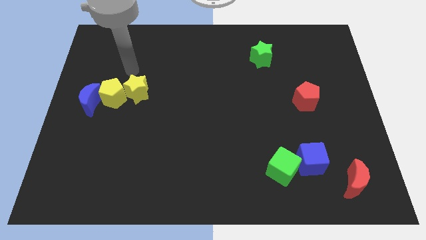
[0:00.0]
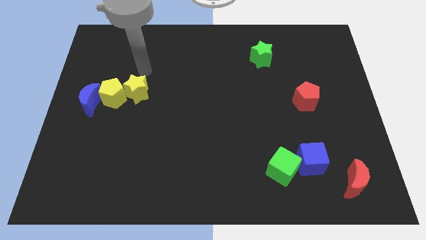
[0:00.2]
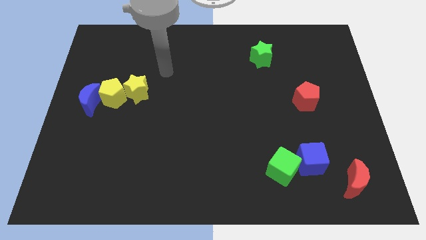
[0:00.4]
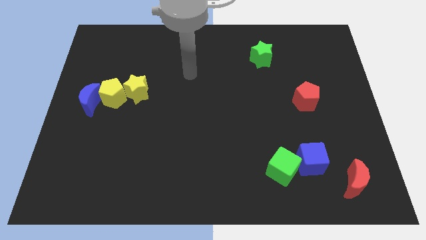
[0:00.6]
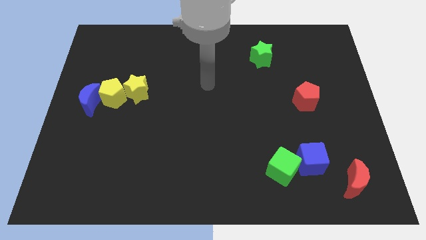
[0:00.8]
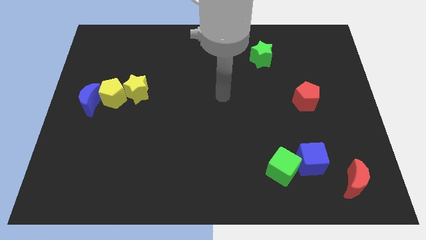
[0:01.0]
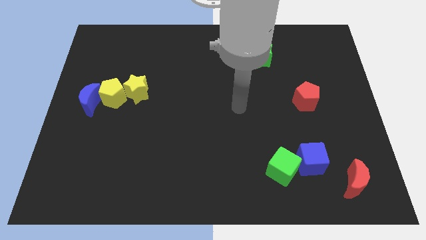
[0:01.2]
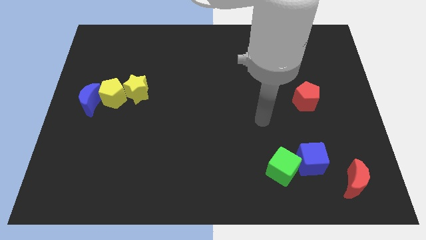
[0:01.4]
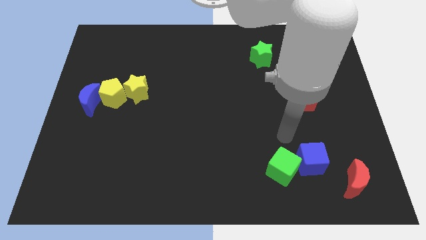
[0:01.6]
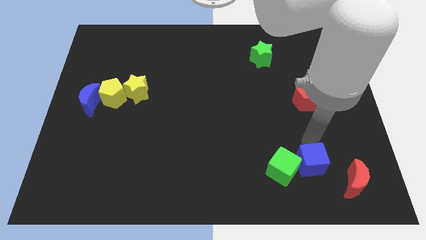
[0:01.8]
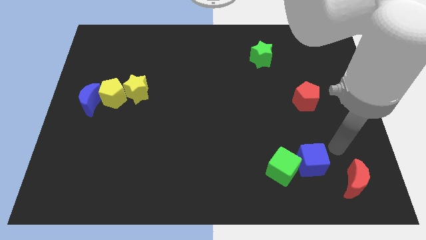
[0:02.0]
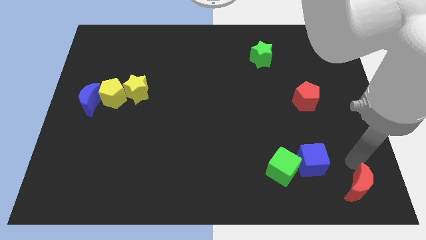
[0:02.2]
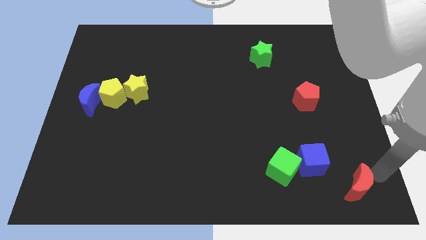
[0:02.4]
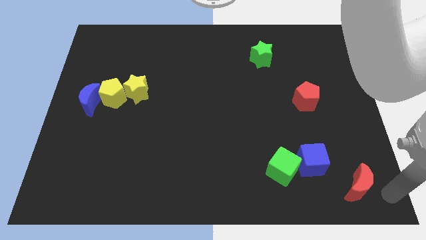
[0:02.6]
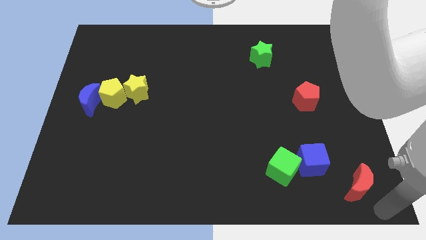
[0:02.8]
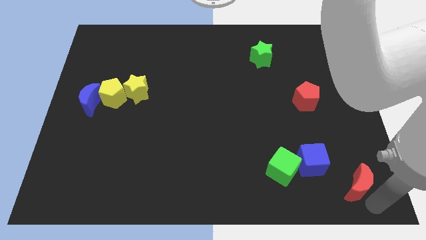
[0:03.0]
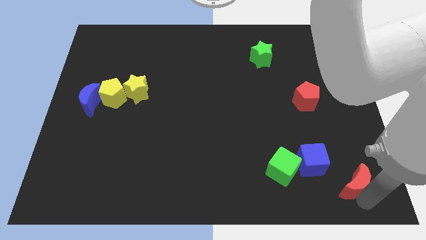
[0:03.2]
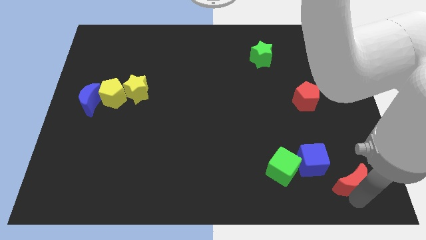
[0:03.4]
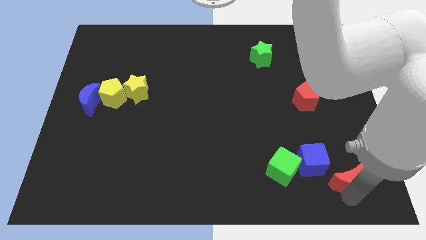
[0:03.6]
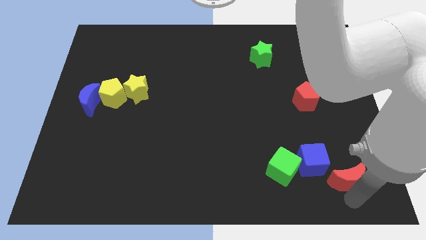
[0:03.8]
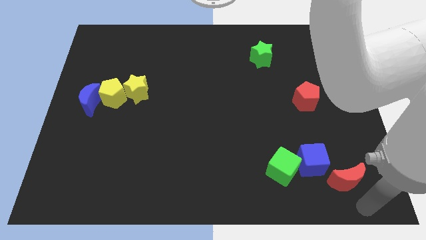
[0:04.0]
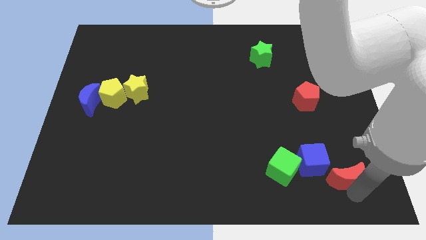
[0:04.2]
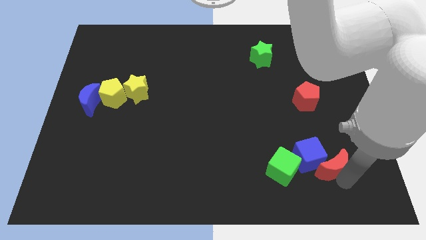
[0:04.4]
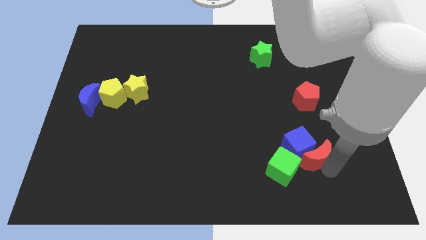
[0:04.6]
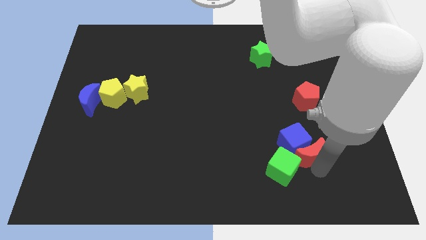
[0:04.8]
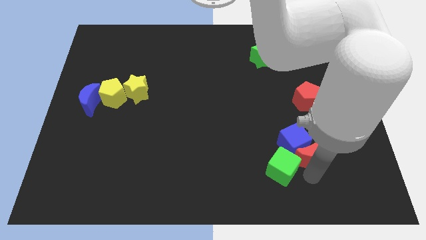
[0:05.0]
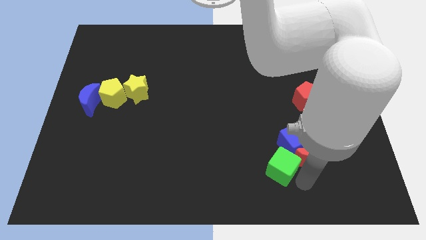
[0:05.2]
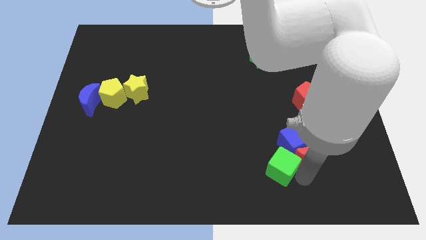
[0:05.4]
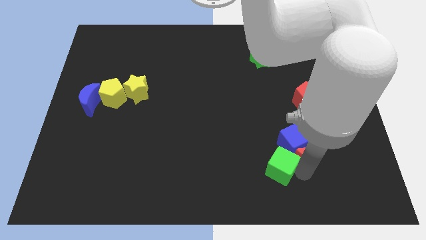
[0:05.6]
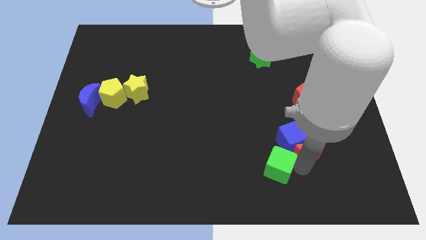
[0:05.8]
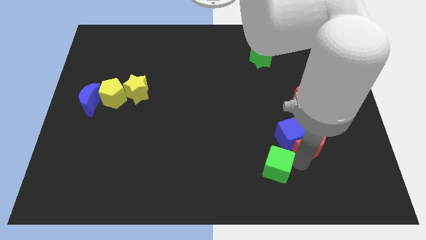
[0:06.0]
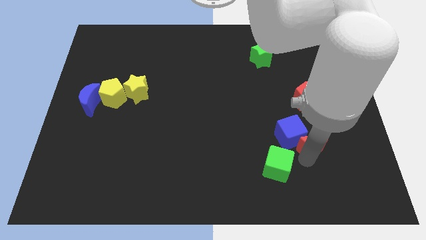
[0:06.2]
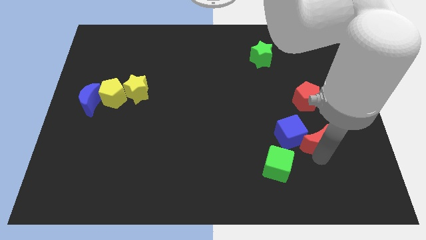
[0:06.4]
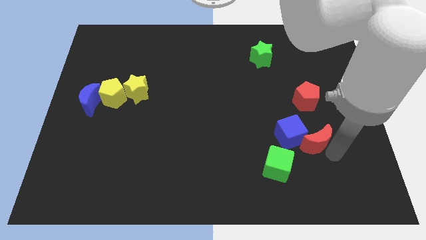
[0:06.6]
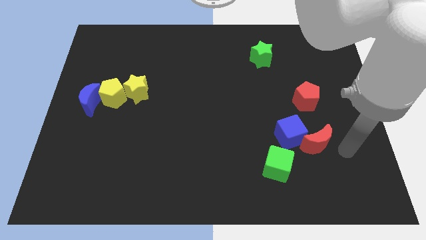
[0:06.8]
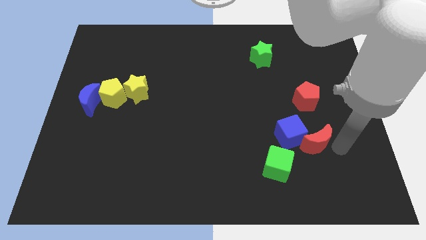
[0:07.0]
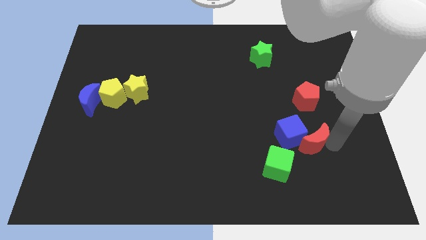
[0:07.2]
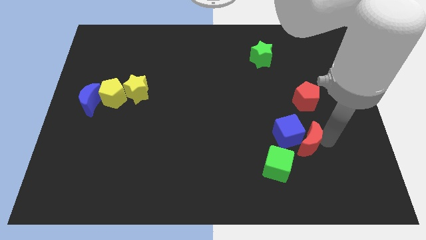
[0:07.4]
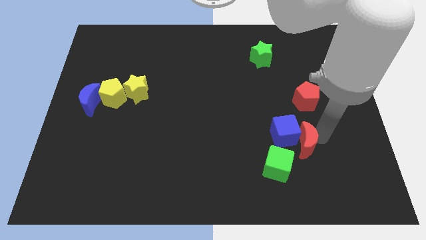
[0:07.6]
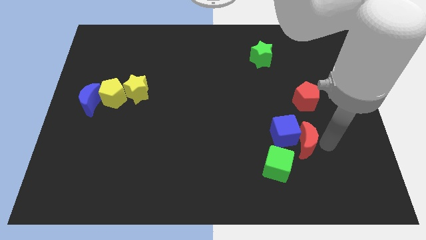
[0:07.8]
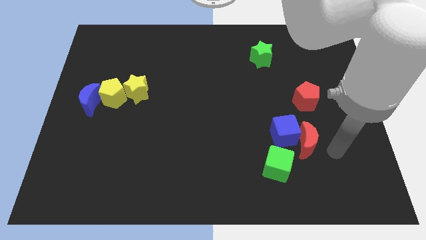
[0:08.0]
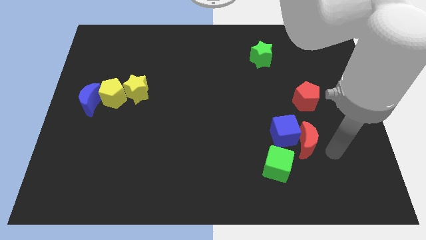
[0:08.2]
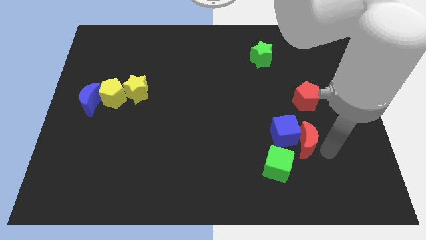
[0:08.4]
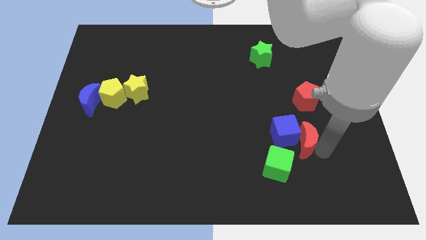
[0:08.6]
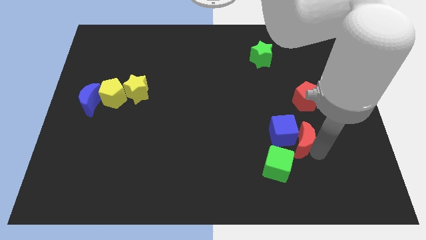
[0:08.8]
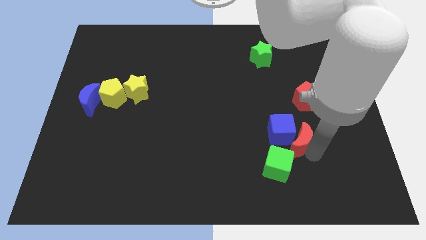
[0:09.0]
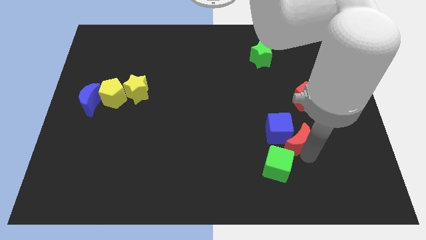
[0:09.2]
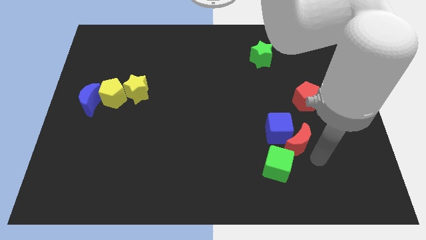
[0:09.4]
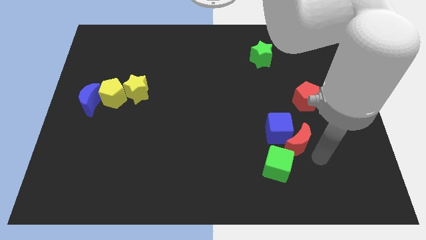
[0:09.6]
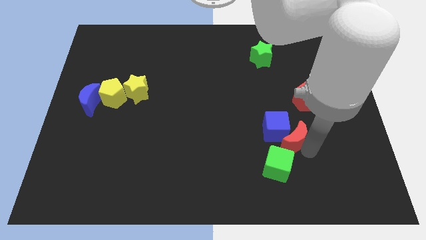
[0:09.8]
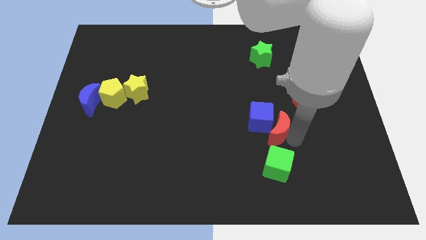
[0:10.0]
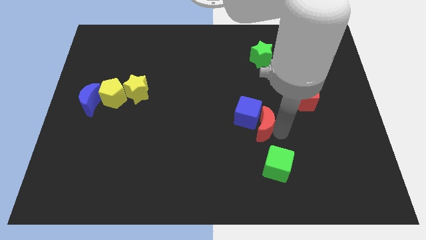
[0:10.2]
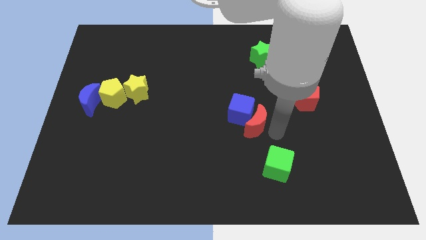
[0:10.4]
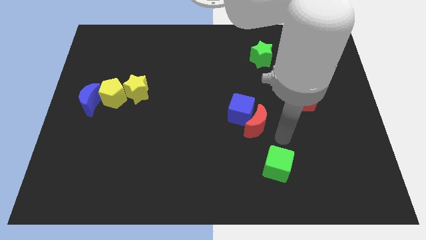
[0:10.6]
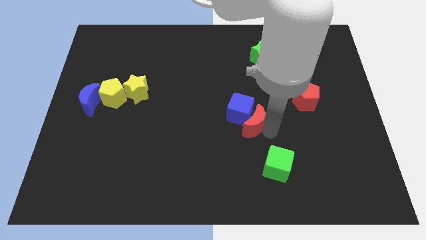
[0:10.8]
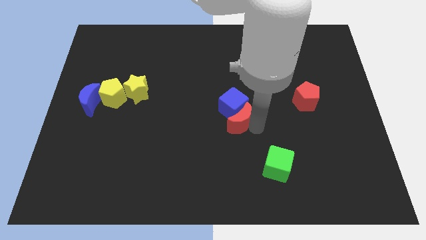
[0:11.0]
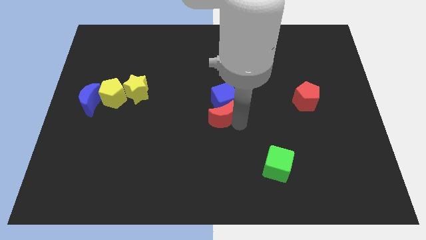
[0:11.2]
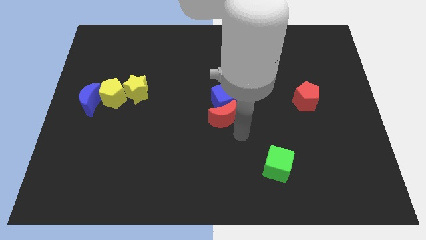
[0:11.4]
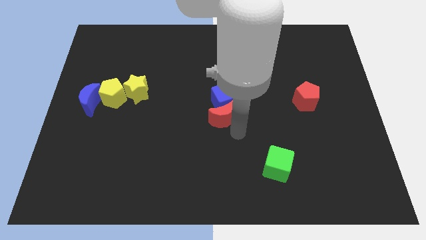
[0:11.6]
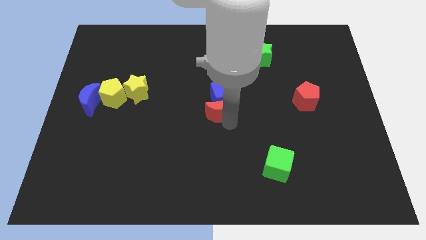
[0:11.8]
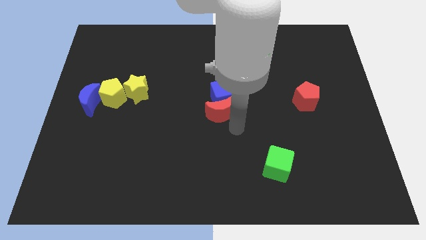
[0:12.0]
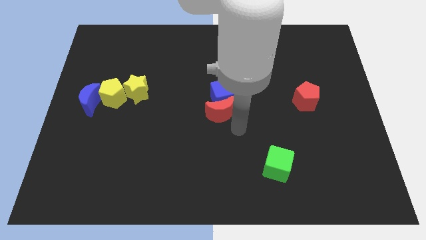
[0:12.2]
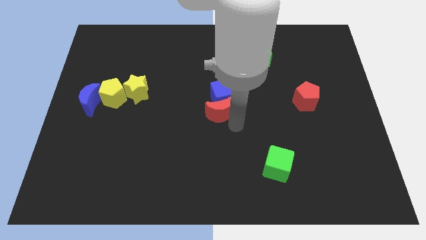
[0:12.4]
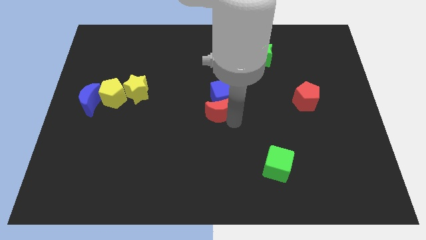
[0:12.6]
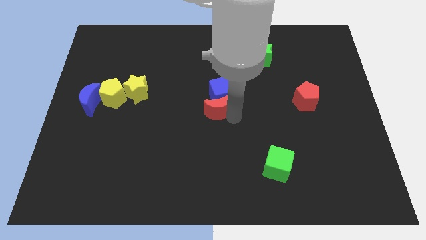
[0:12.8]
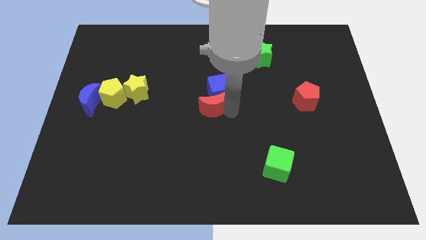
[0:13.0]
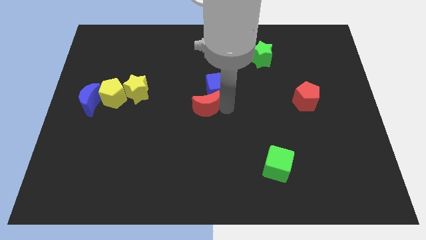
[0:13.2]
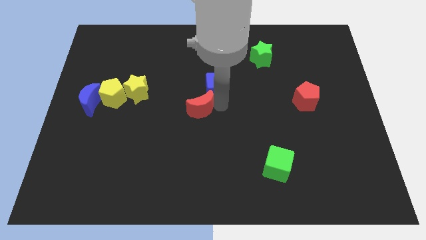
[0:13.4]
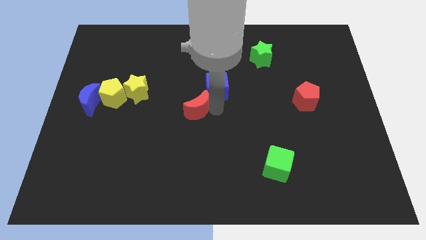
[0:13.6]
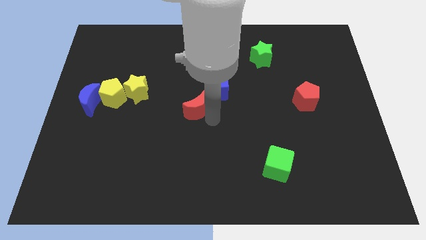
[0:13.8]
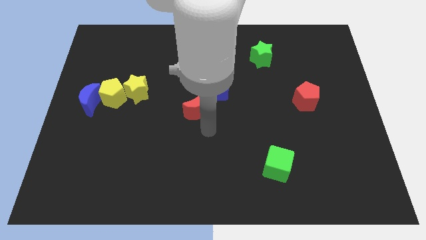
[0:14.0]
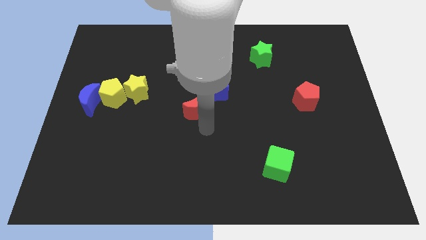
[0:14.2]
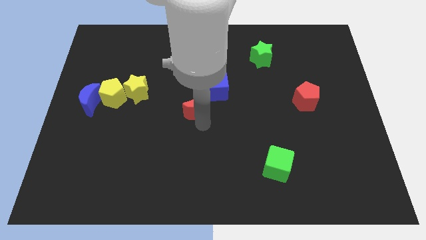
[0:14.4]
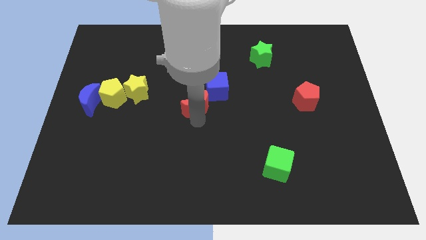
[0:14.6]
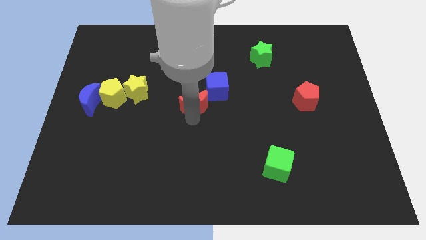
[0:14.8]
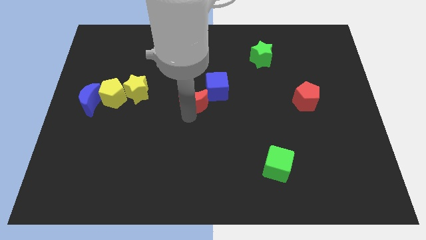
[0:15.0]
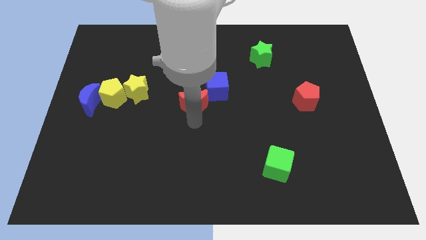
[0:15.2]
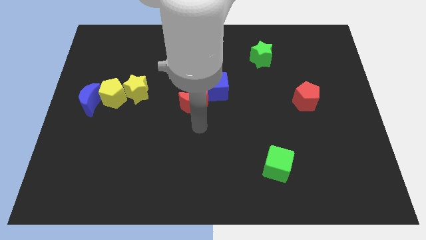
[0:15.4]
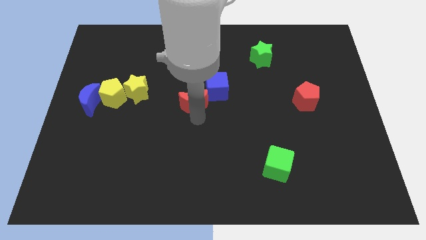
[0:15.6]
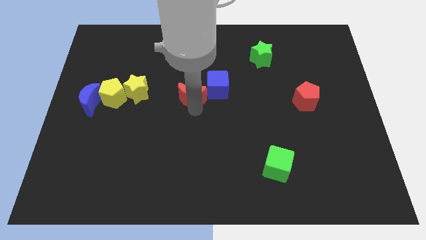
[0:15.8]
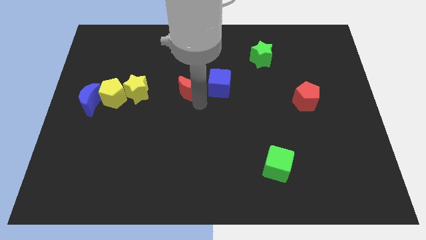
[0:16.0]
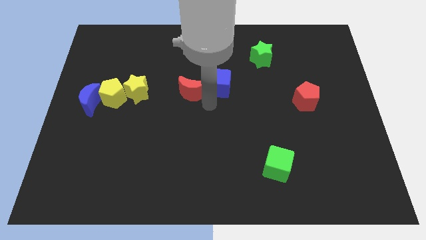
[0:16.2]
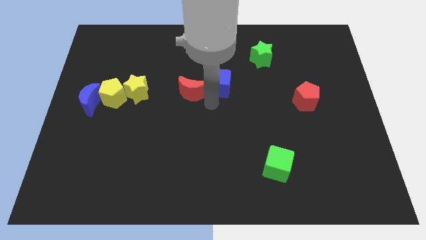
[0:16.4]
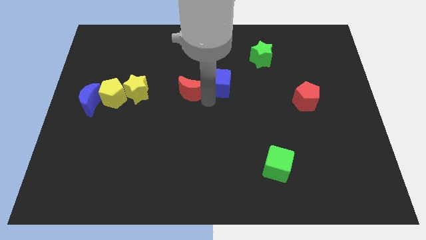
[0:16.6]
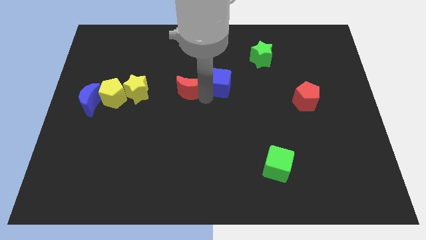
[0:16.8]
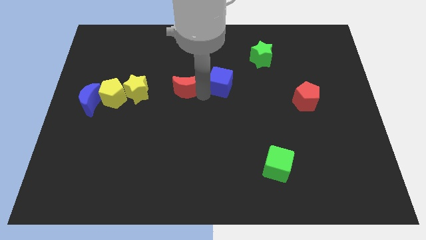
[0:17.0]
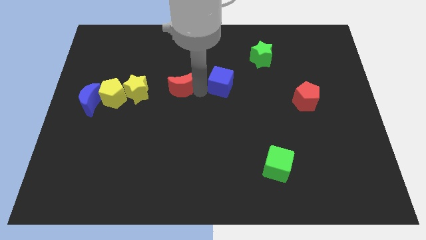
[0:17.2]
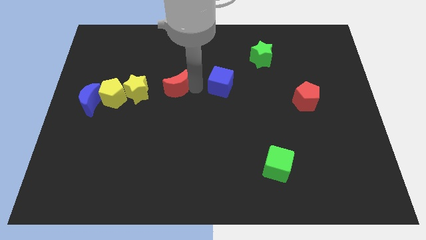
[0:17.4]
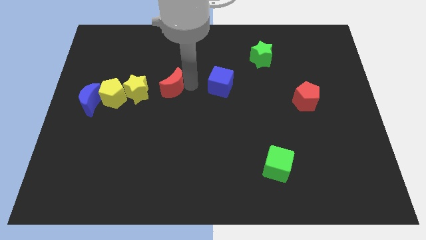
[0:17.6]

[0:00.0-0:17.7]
slide the red moon diagonally up and to the right of the yellow star
